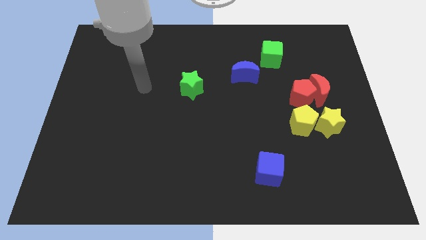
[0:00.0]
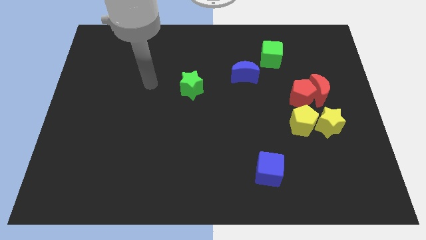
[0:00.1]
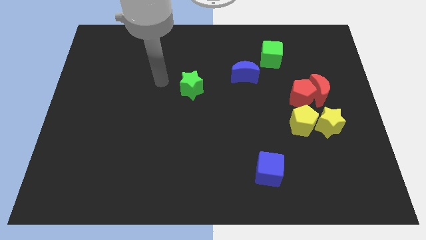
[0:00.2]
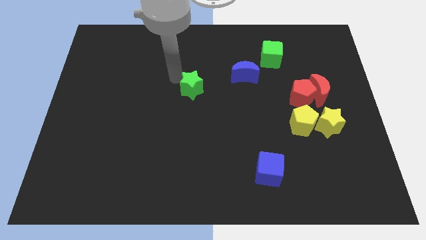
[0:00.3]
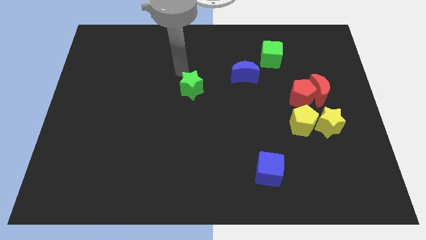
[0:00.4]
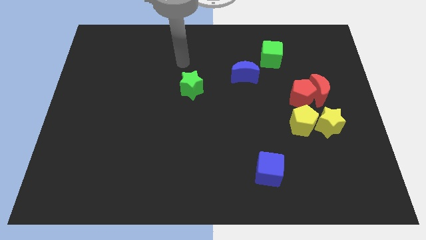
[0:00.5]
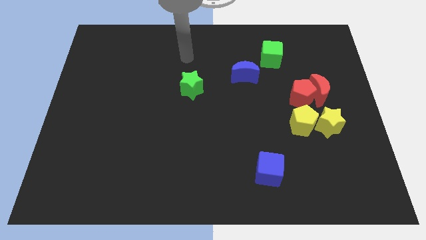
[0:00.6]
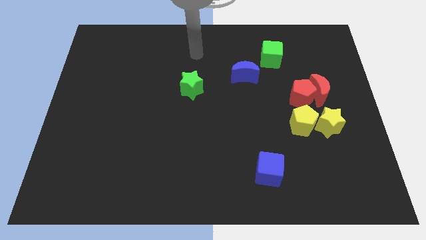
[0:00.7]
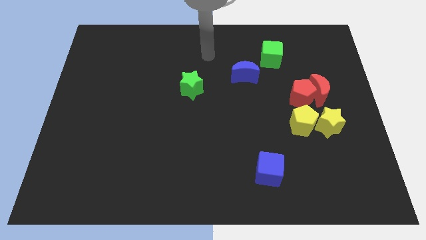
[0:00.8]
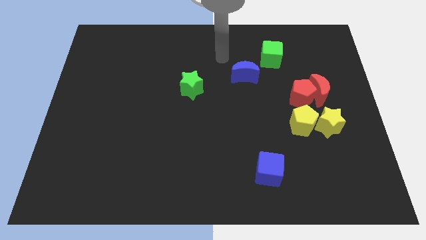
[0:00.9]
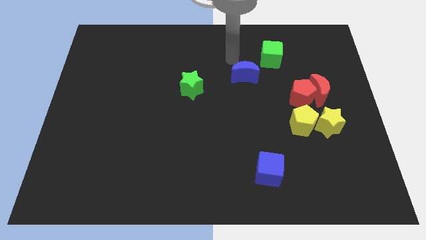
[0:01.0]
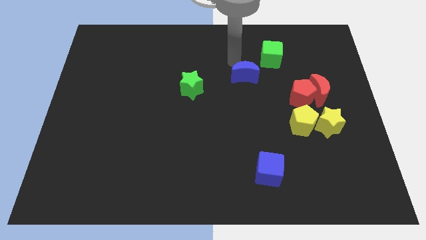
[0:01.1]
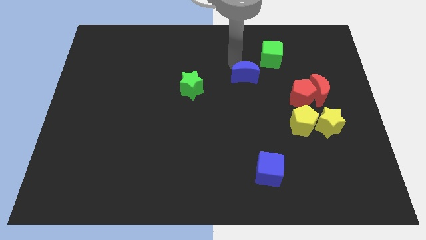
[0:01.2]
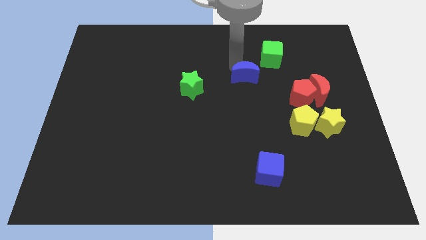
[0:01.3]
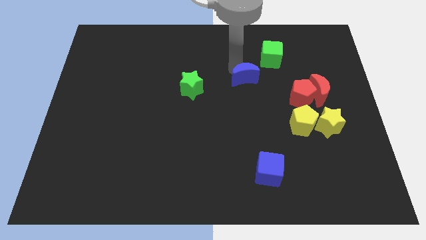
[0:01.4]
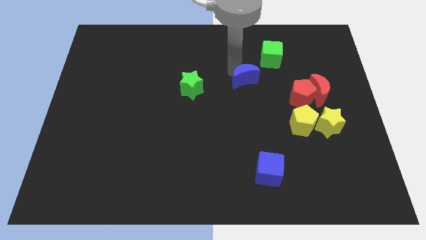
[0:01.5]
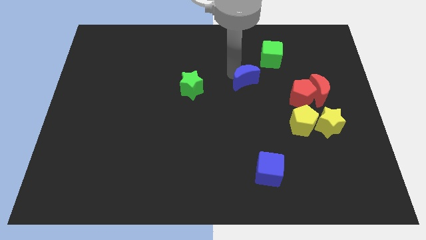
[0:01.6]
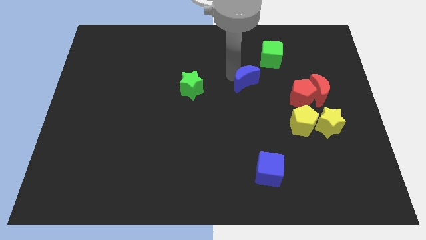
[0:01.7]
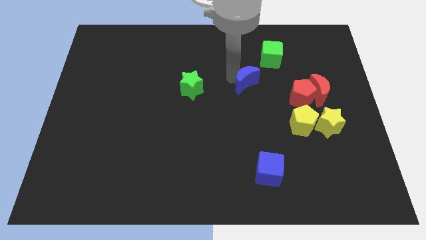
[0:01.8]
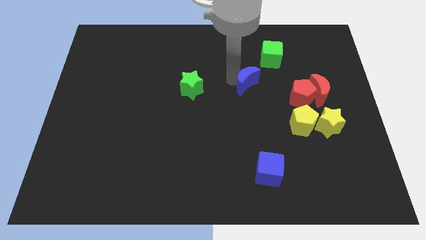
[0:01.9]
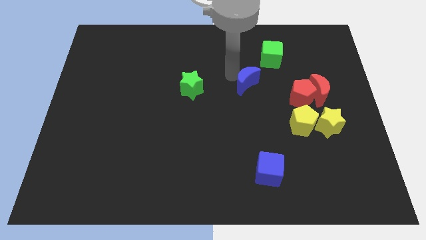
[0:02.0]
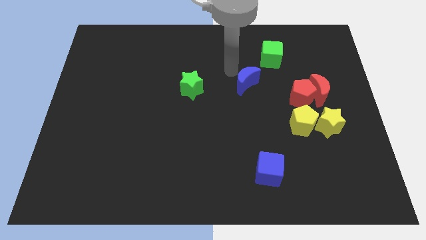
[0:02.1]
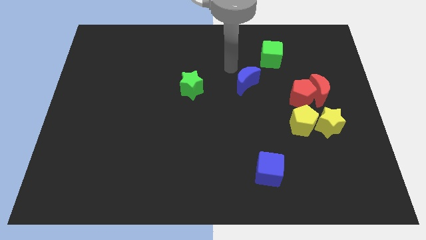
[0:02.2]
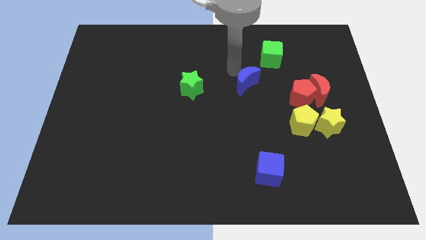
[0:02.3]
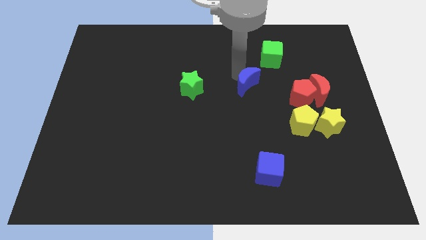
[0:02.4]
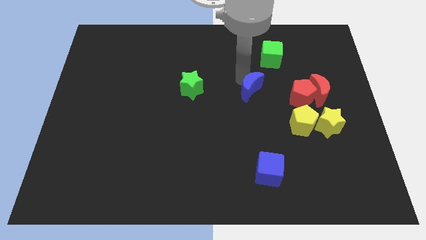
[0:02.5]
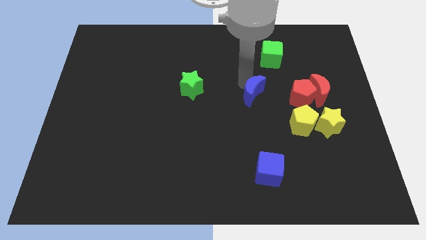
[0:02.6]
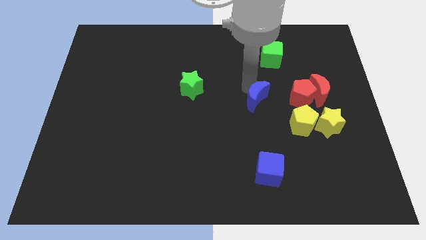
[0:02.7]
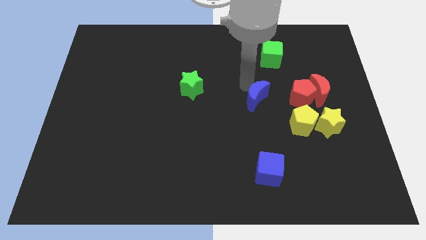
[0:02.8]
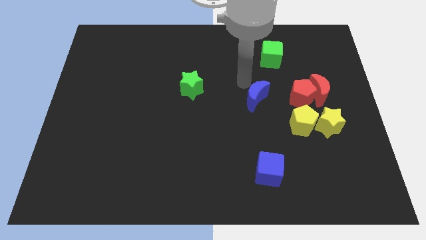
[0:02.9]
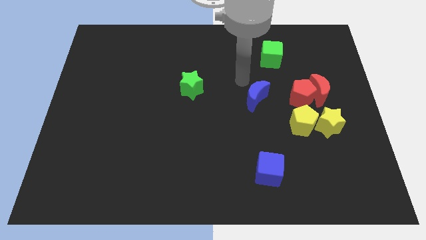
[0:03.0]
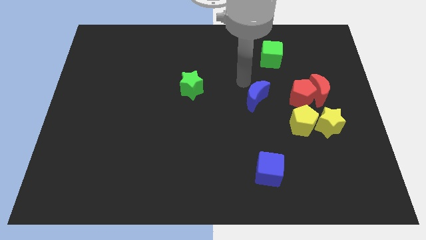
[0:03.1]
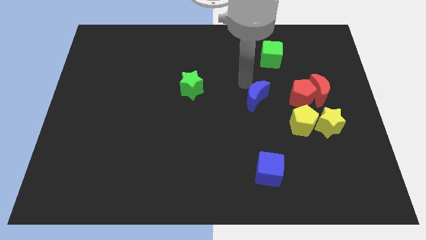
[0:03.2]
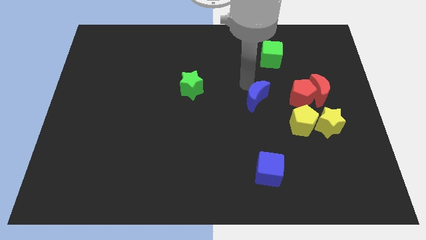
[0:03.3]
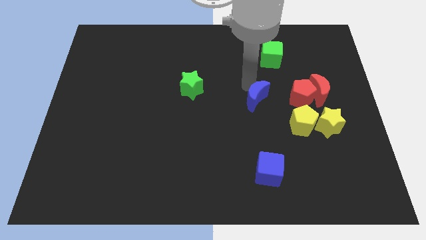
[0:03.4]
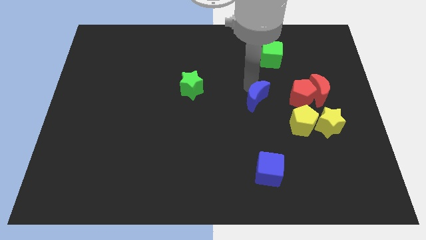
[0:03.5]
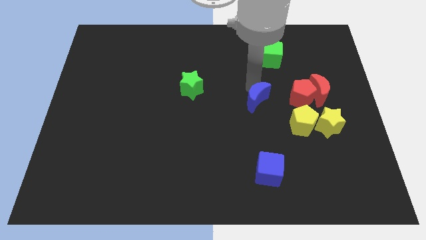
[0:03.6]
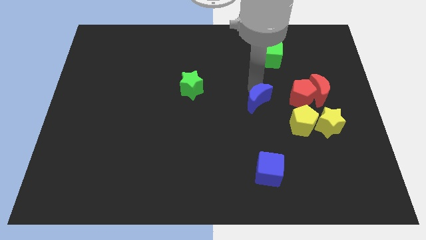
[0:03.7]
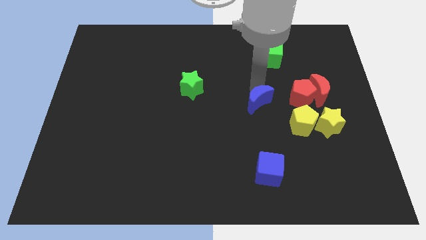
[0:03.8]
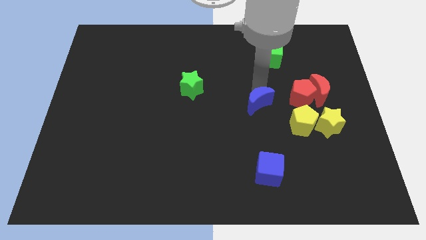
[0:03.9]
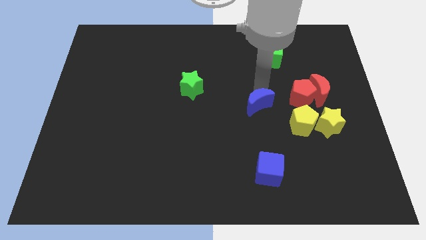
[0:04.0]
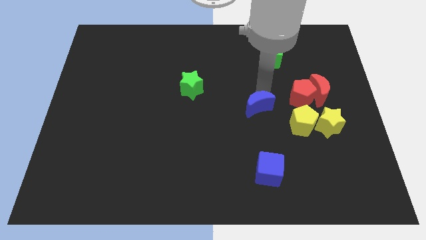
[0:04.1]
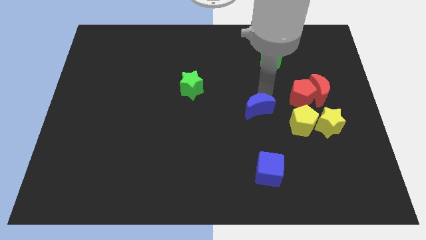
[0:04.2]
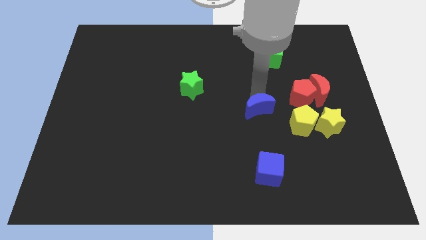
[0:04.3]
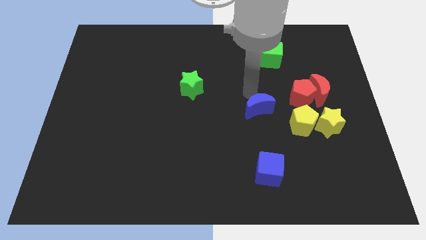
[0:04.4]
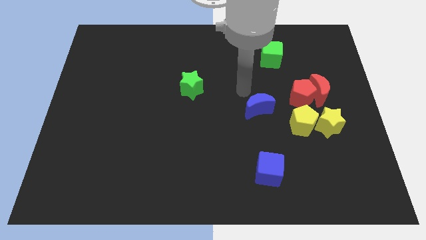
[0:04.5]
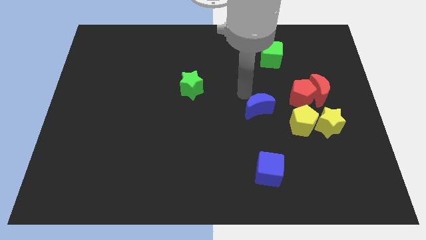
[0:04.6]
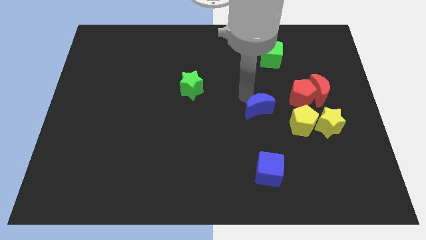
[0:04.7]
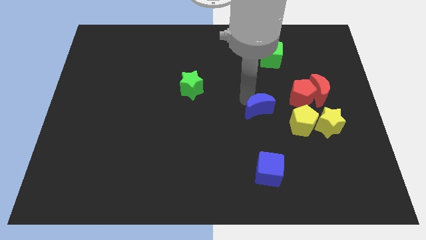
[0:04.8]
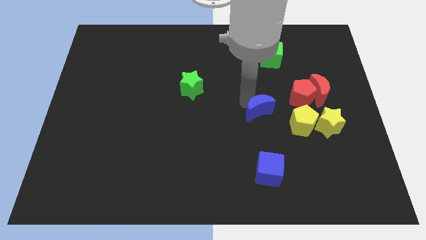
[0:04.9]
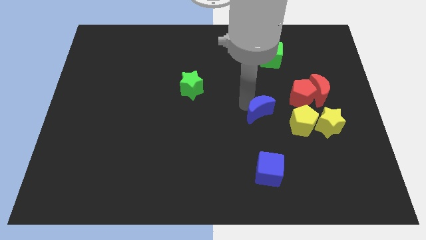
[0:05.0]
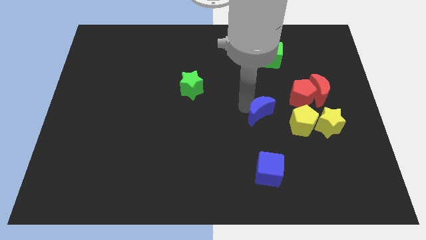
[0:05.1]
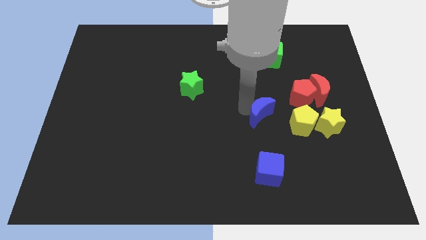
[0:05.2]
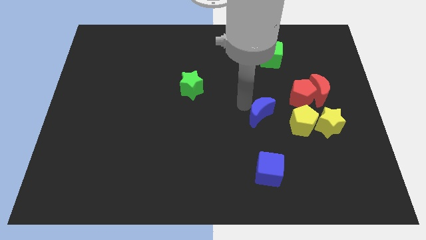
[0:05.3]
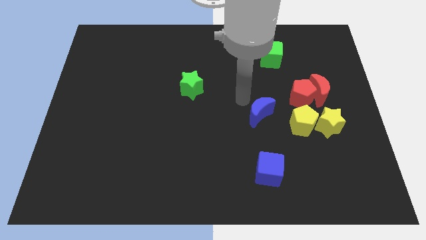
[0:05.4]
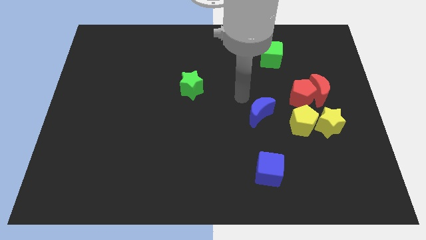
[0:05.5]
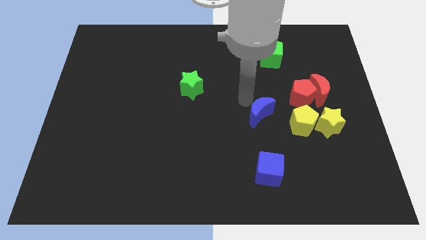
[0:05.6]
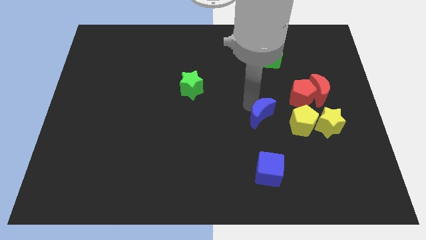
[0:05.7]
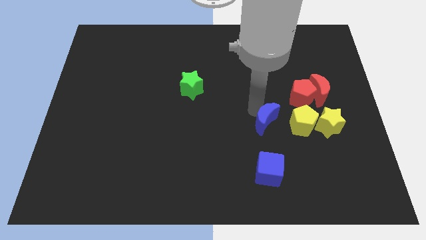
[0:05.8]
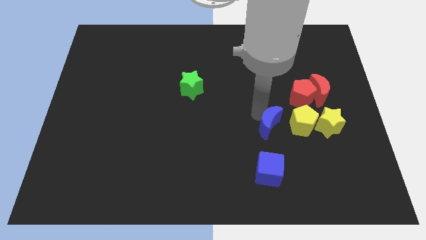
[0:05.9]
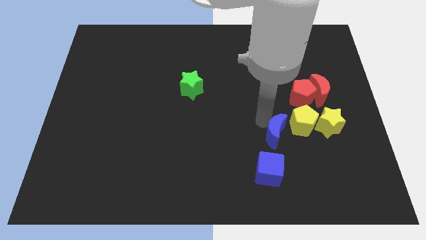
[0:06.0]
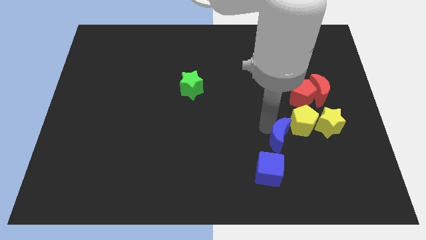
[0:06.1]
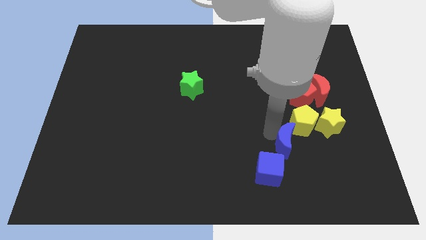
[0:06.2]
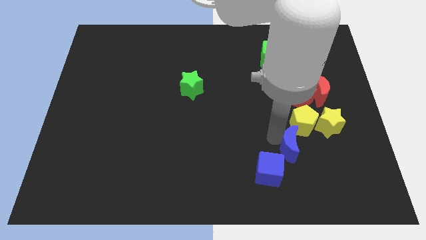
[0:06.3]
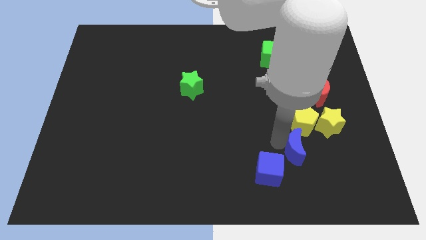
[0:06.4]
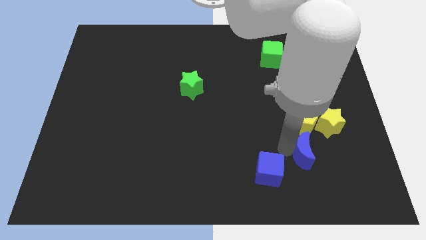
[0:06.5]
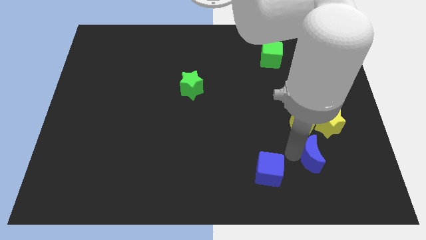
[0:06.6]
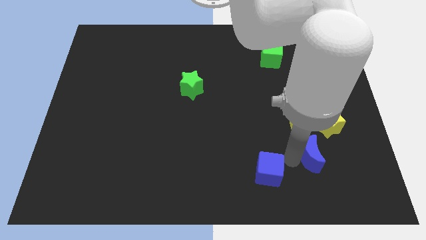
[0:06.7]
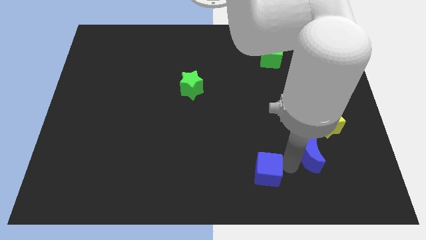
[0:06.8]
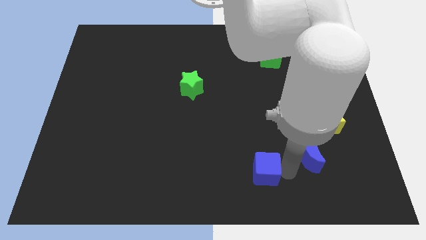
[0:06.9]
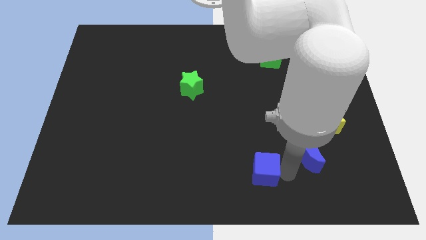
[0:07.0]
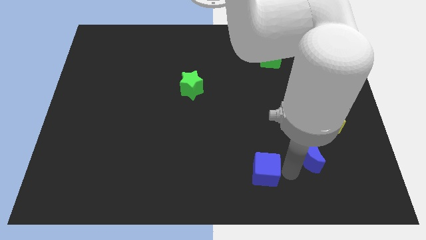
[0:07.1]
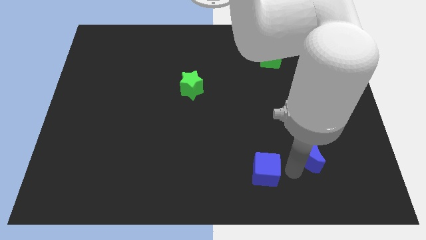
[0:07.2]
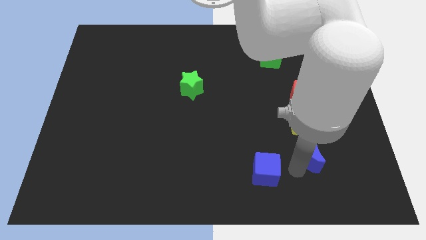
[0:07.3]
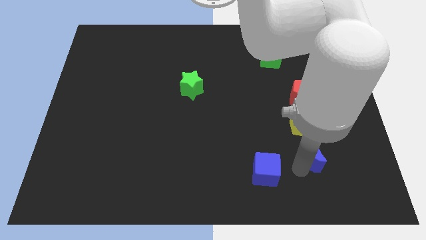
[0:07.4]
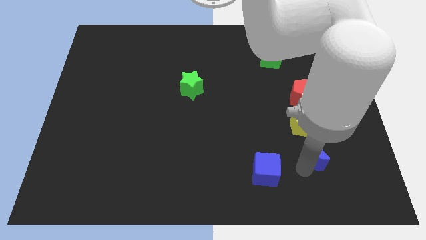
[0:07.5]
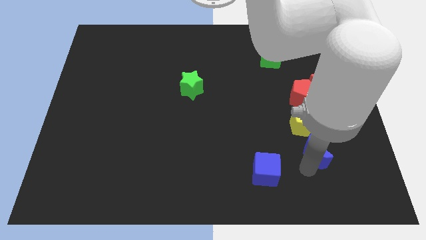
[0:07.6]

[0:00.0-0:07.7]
slide the blue moon to the bottom right side of the yellow pentagon

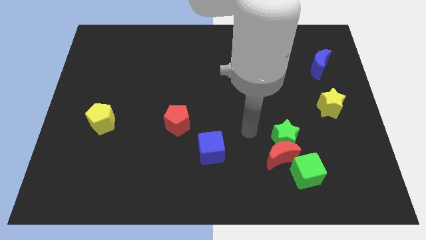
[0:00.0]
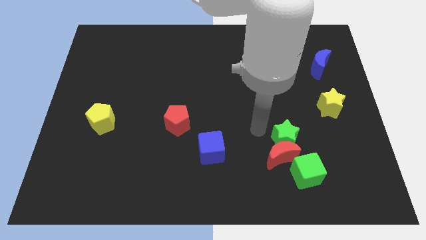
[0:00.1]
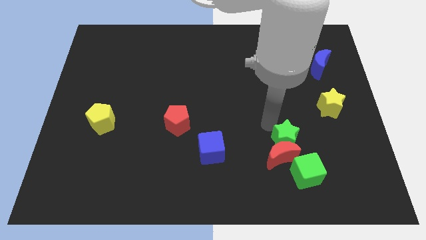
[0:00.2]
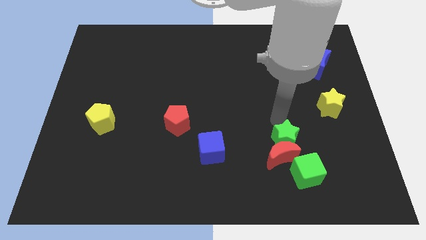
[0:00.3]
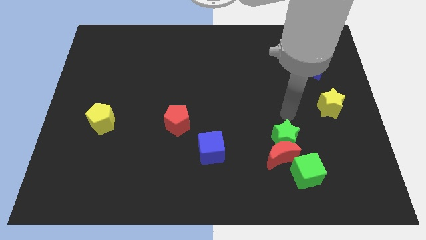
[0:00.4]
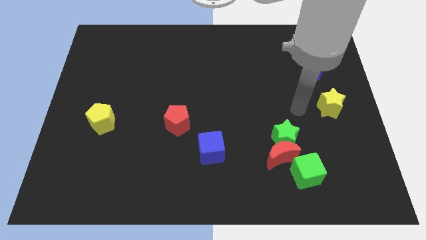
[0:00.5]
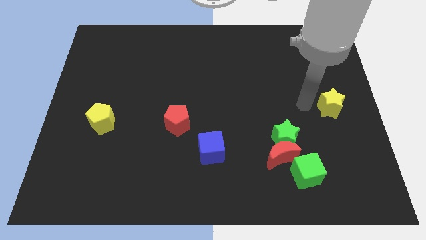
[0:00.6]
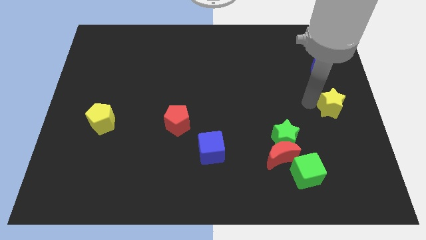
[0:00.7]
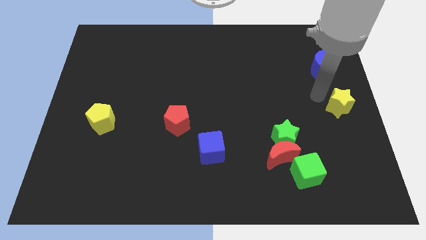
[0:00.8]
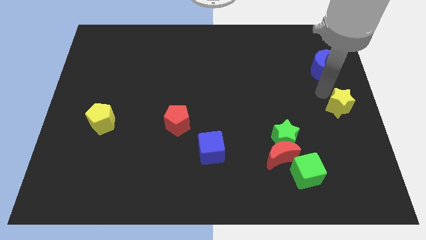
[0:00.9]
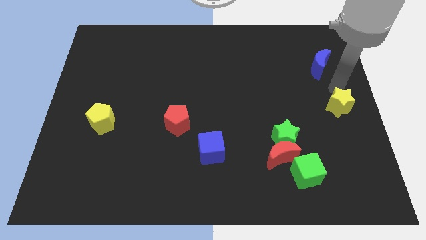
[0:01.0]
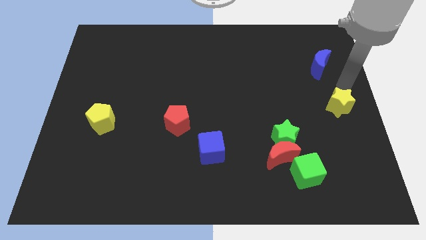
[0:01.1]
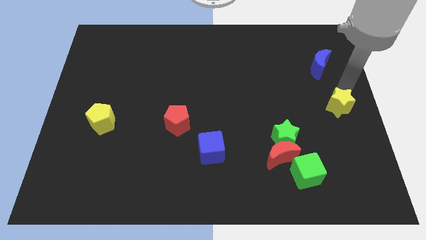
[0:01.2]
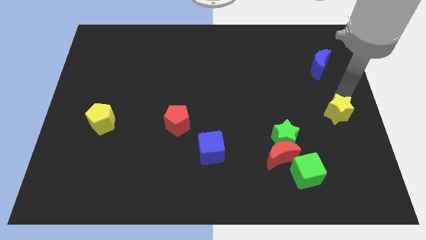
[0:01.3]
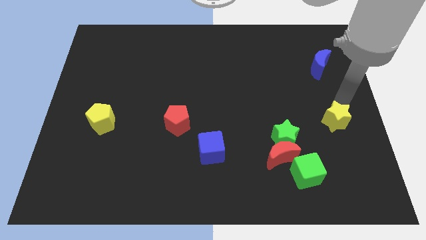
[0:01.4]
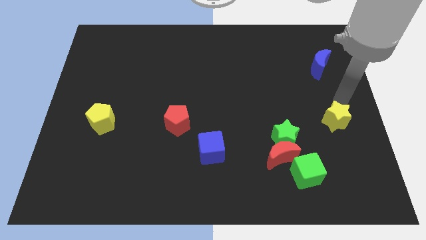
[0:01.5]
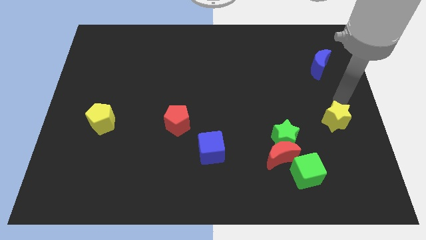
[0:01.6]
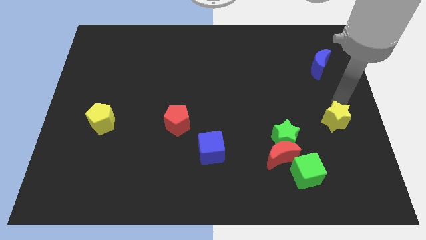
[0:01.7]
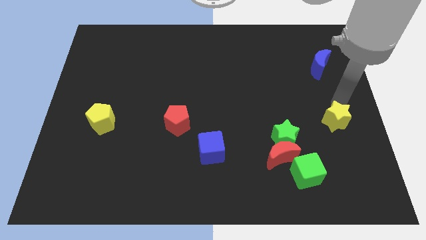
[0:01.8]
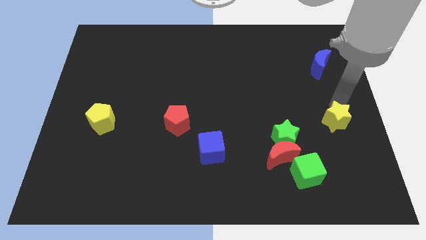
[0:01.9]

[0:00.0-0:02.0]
put the yellow star to the right side of the green star
